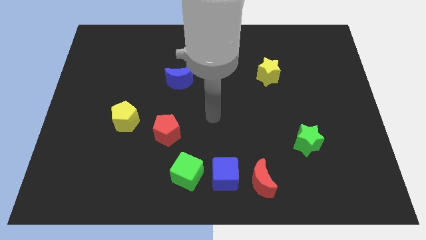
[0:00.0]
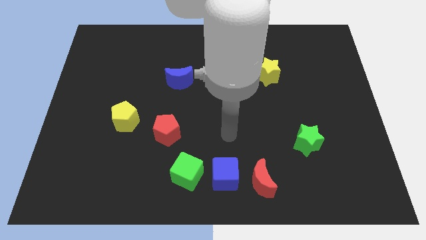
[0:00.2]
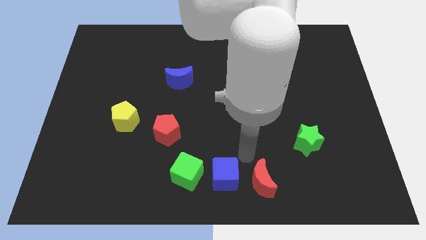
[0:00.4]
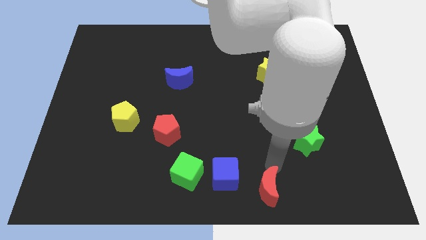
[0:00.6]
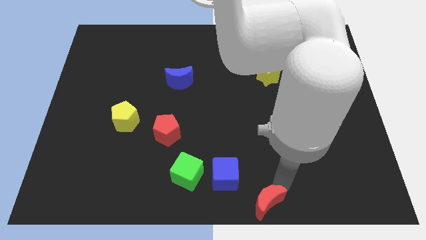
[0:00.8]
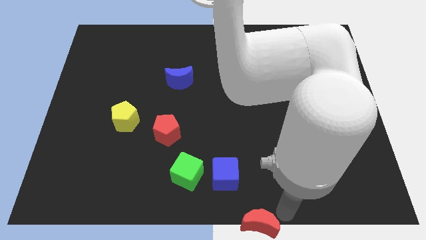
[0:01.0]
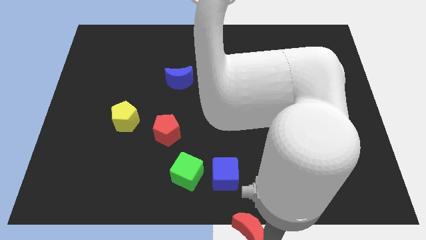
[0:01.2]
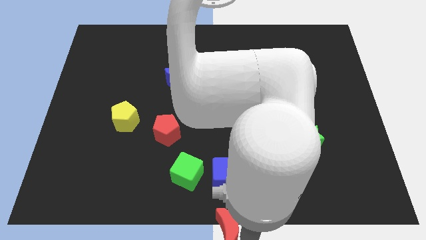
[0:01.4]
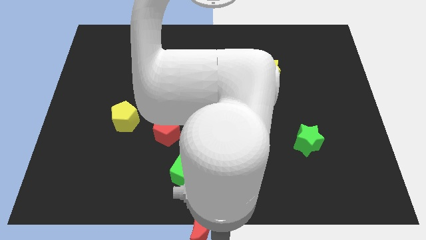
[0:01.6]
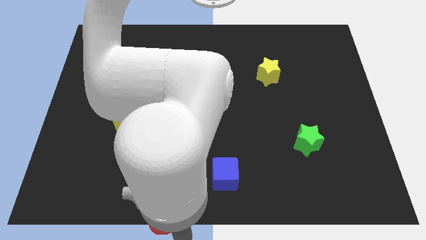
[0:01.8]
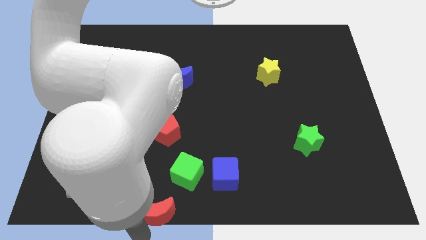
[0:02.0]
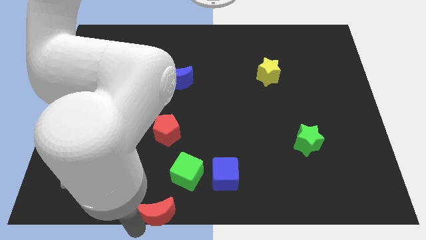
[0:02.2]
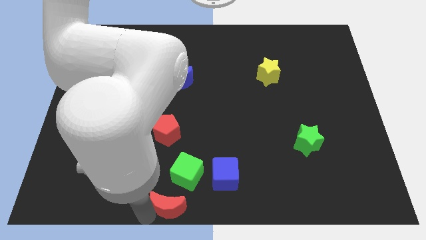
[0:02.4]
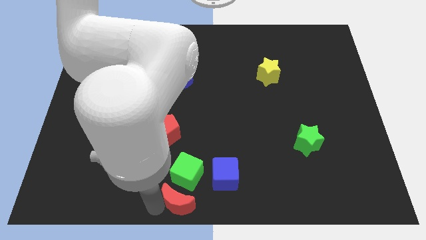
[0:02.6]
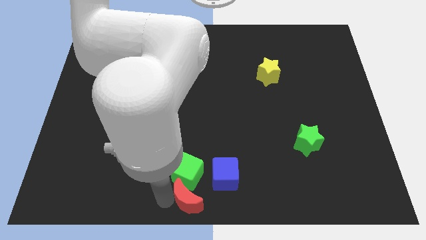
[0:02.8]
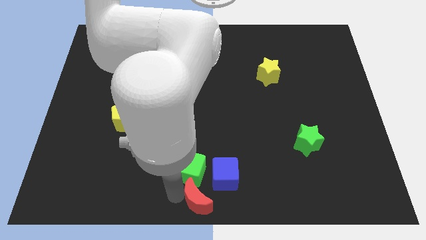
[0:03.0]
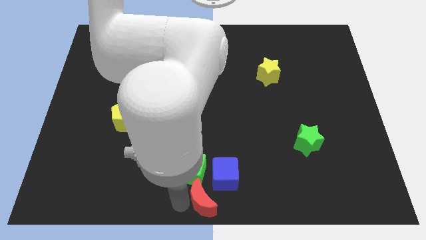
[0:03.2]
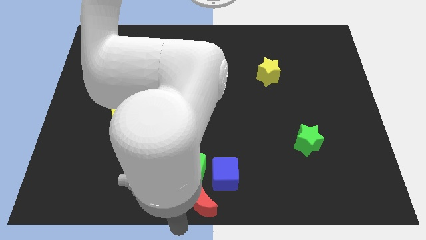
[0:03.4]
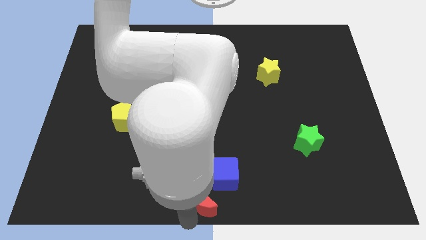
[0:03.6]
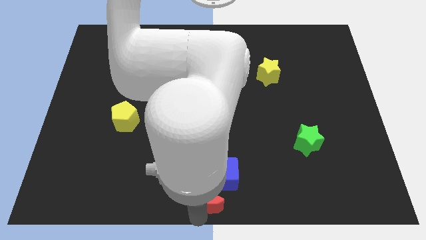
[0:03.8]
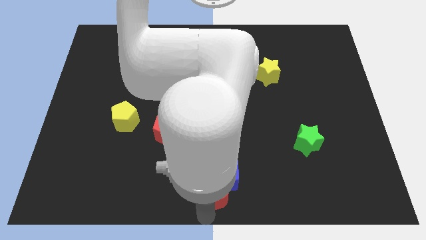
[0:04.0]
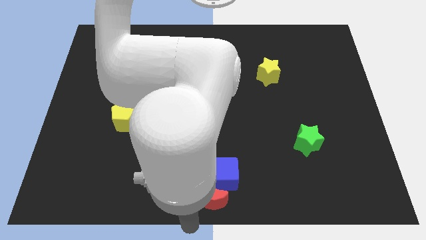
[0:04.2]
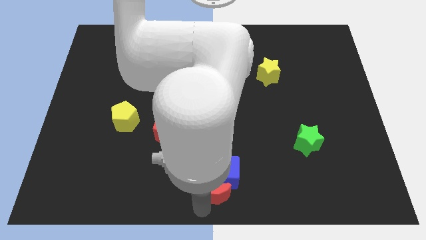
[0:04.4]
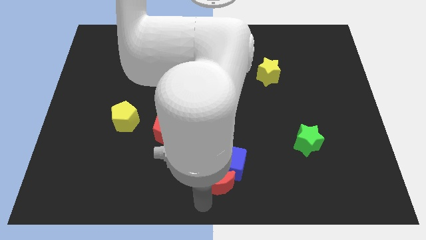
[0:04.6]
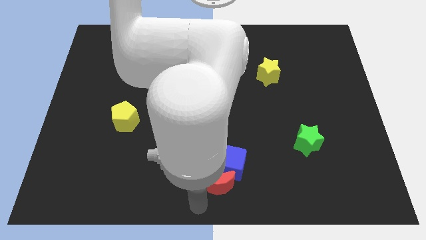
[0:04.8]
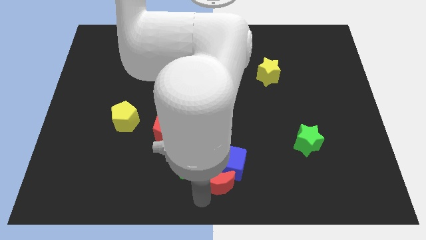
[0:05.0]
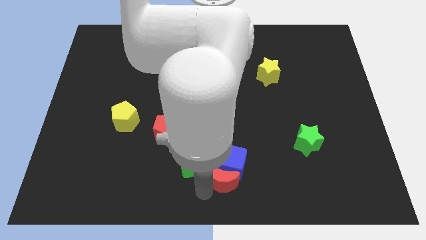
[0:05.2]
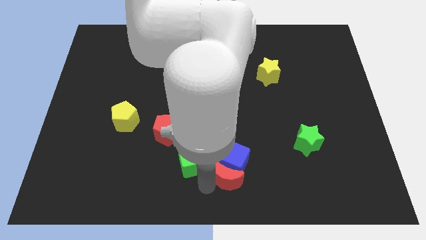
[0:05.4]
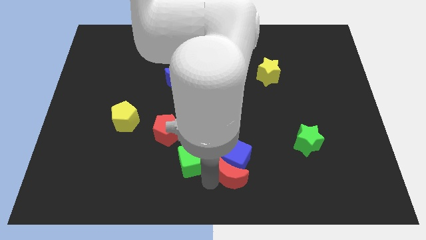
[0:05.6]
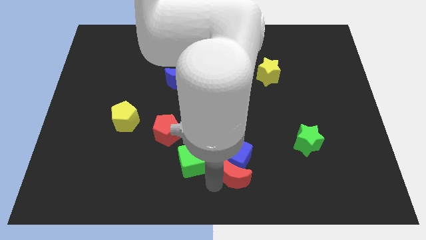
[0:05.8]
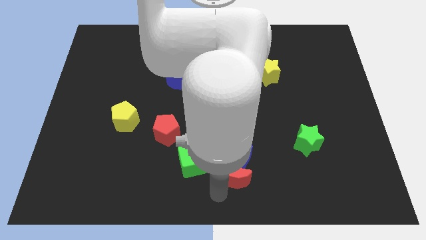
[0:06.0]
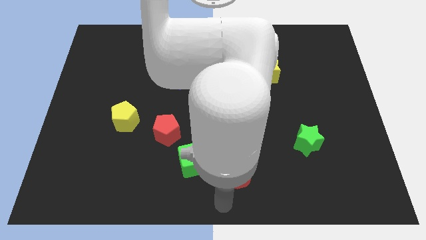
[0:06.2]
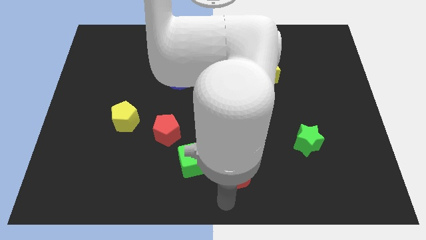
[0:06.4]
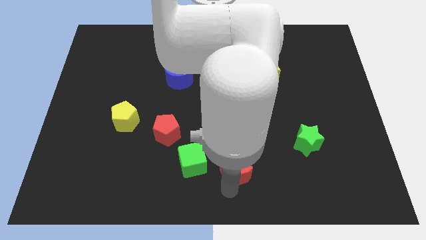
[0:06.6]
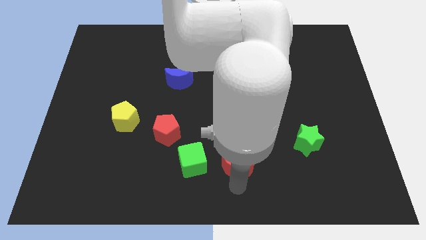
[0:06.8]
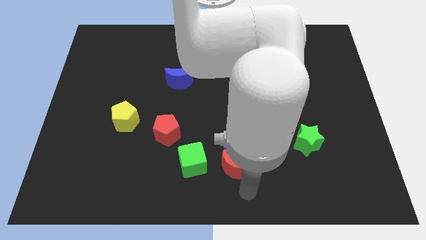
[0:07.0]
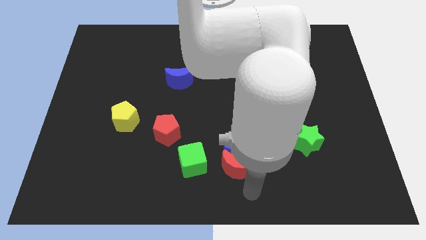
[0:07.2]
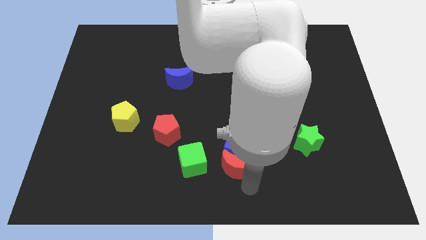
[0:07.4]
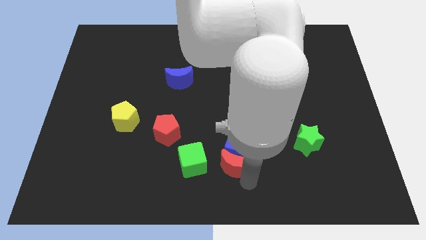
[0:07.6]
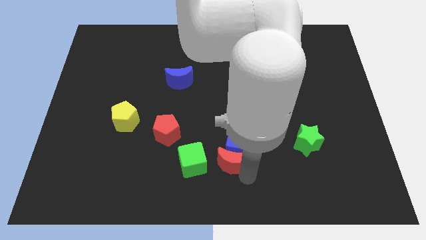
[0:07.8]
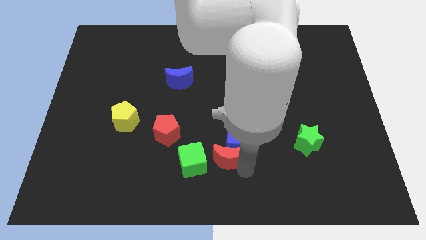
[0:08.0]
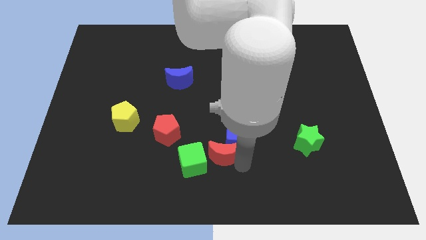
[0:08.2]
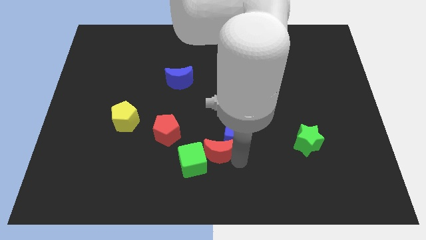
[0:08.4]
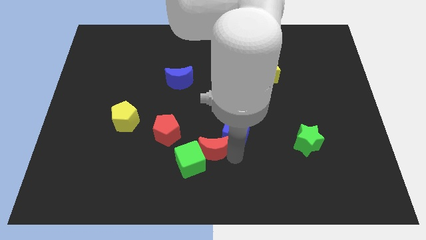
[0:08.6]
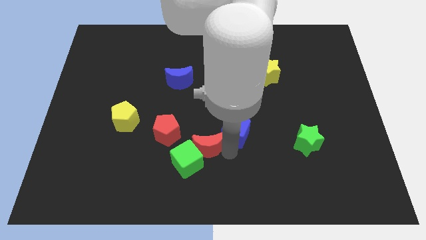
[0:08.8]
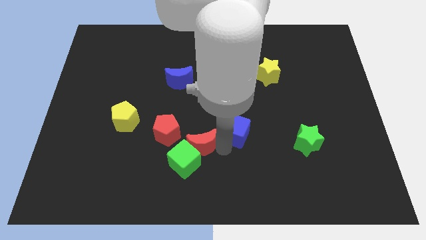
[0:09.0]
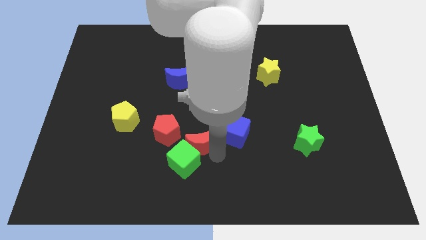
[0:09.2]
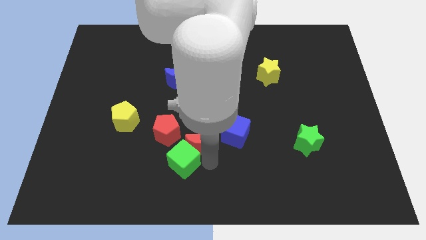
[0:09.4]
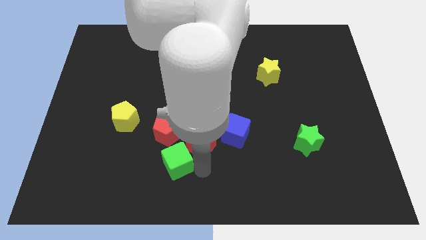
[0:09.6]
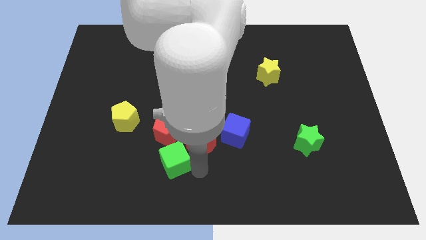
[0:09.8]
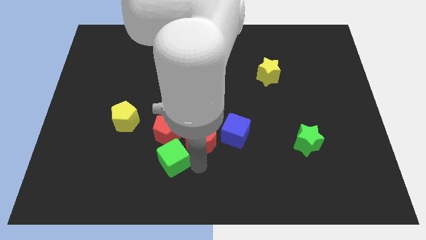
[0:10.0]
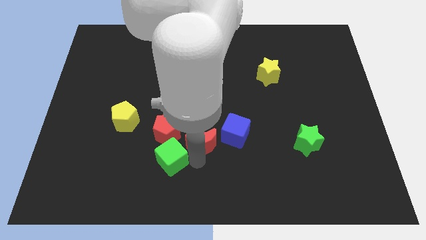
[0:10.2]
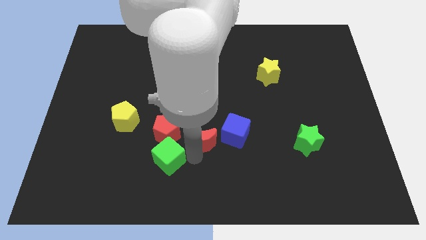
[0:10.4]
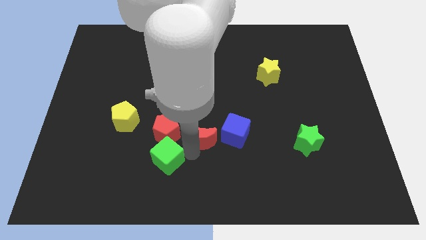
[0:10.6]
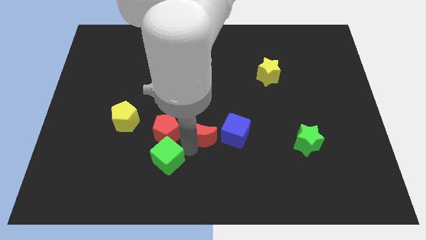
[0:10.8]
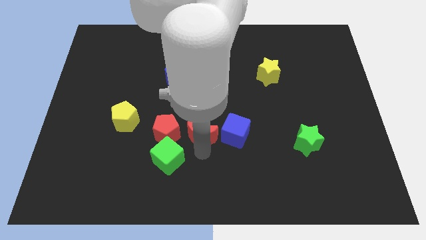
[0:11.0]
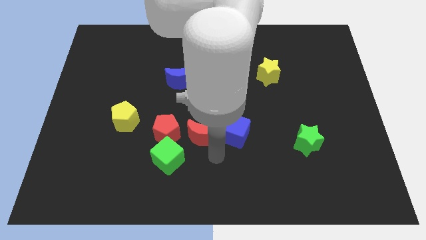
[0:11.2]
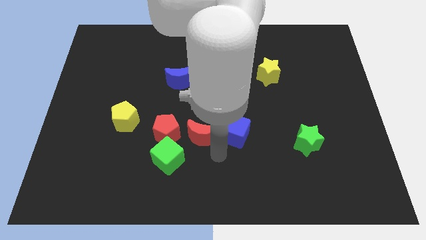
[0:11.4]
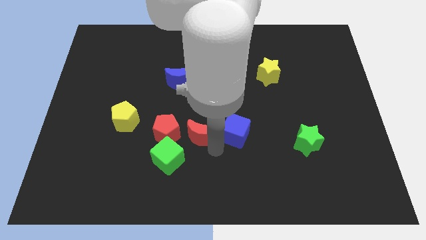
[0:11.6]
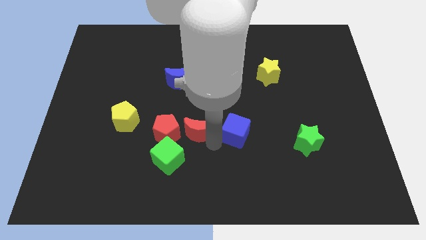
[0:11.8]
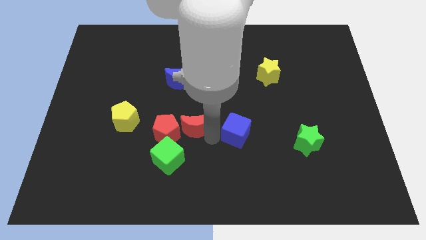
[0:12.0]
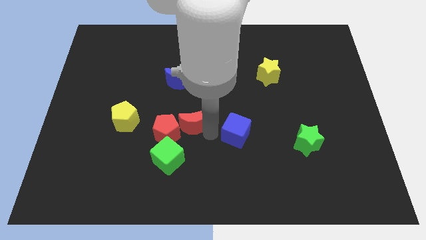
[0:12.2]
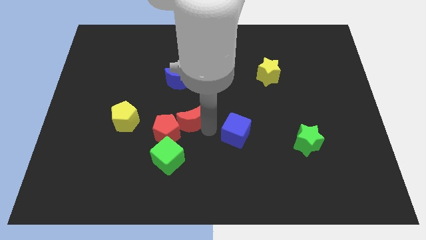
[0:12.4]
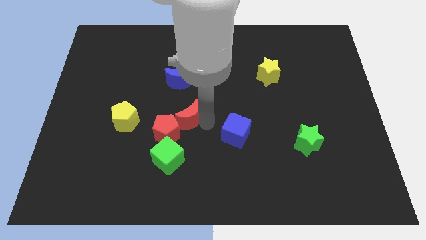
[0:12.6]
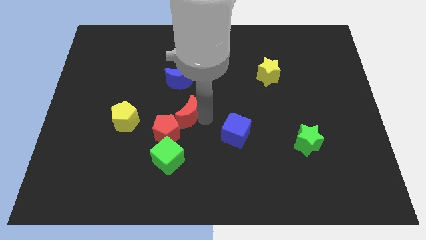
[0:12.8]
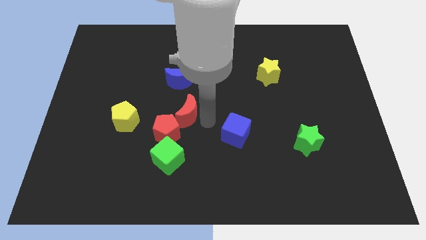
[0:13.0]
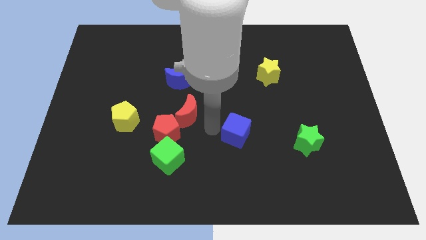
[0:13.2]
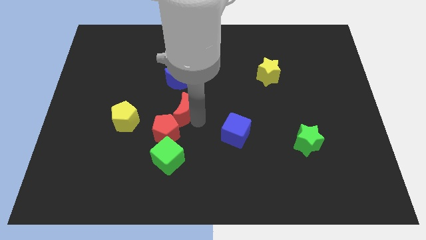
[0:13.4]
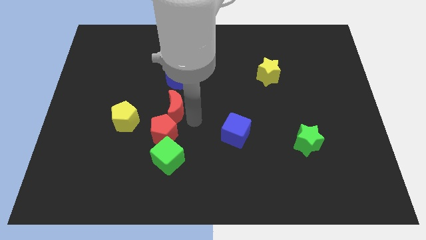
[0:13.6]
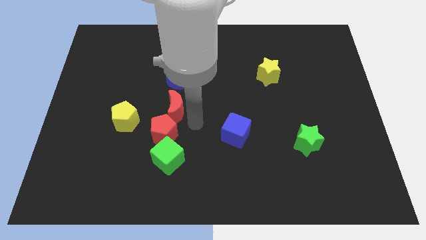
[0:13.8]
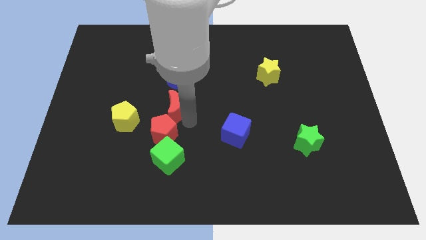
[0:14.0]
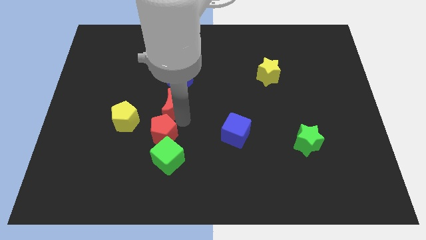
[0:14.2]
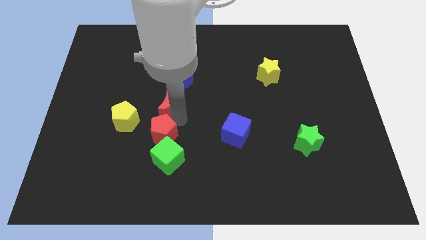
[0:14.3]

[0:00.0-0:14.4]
put the red moon diagonally down and to the left of the blue moon
